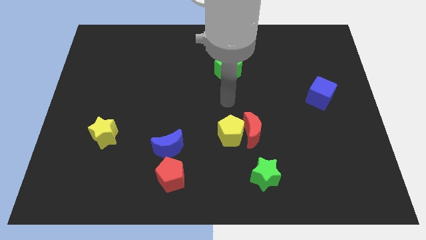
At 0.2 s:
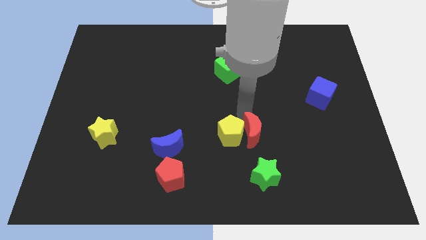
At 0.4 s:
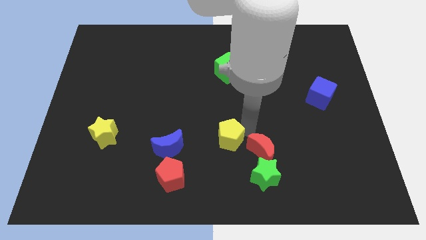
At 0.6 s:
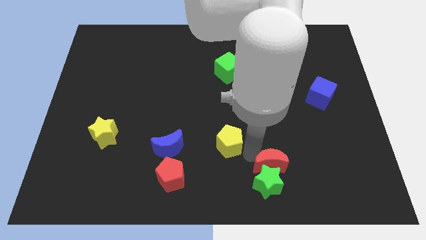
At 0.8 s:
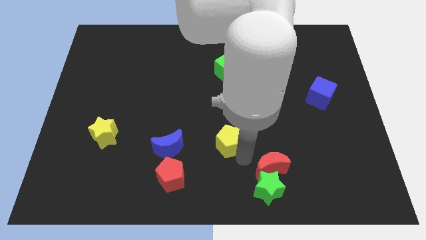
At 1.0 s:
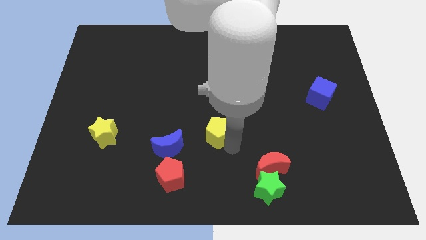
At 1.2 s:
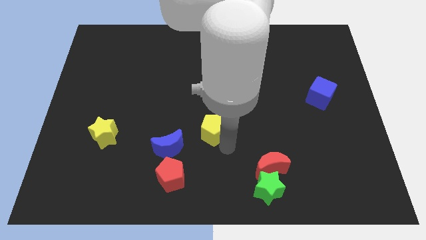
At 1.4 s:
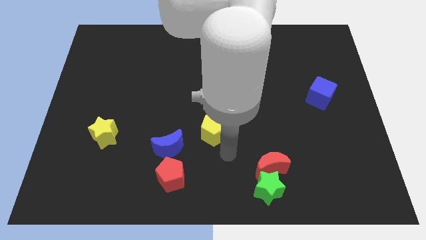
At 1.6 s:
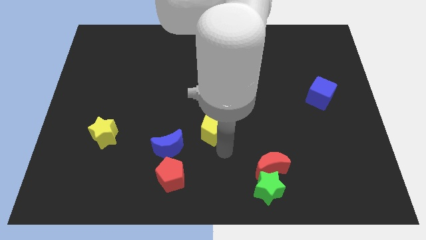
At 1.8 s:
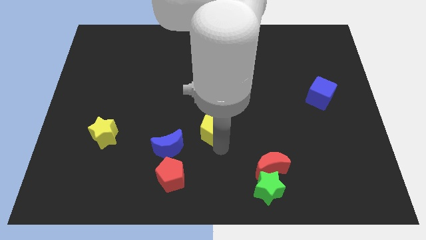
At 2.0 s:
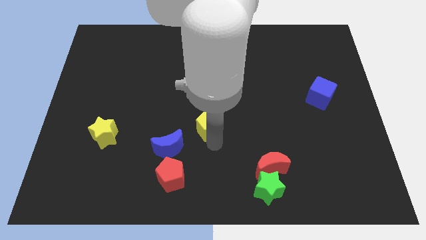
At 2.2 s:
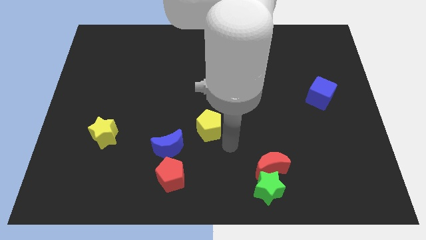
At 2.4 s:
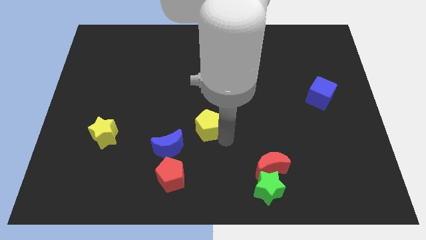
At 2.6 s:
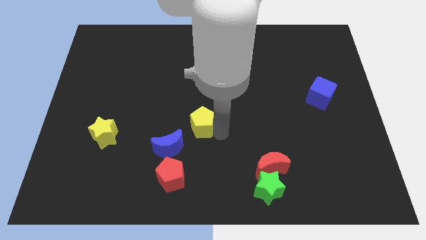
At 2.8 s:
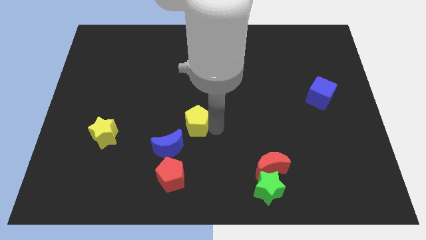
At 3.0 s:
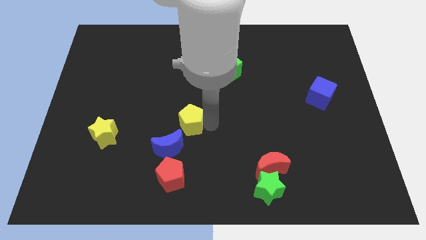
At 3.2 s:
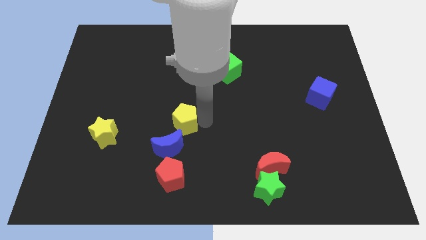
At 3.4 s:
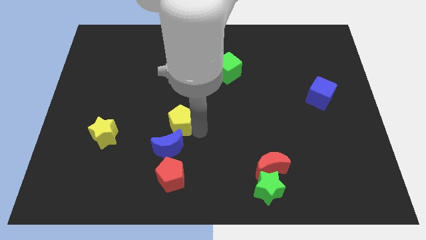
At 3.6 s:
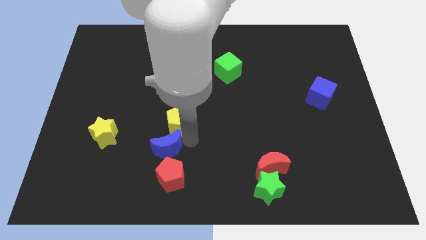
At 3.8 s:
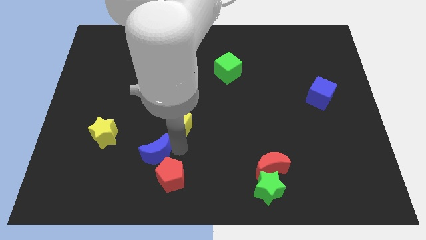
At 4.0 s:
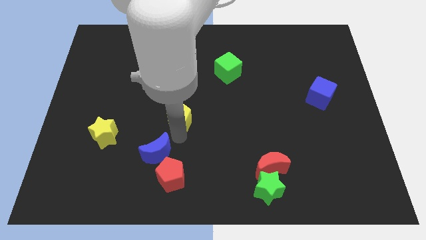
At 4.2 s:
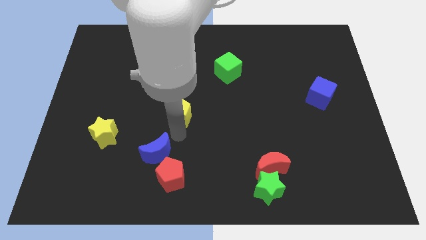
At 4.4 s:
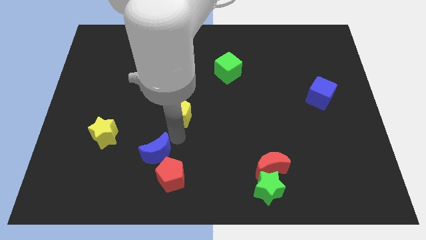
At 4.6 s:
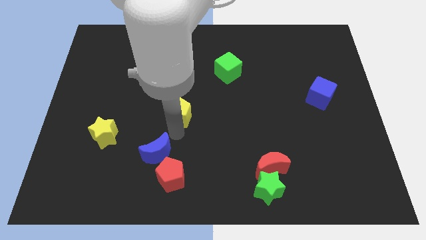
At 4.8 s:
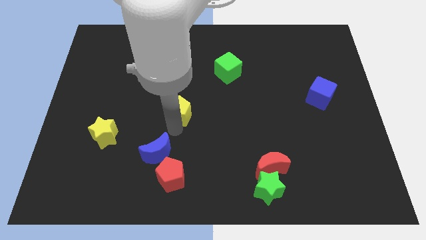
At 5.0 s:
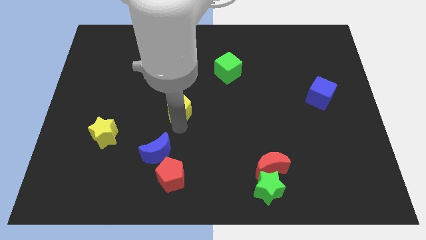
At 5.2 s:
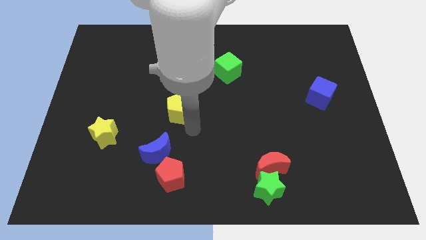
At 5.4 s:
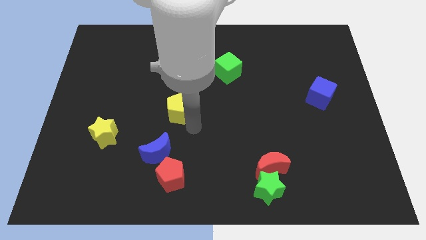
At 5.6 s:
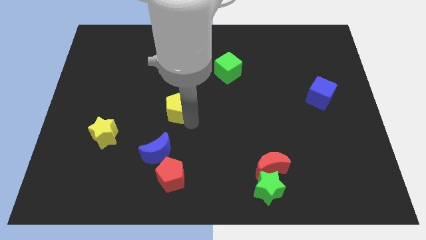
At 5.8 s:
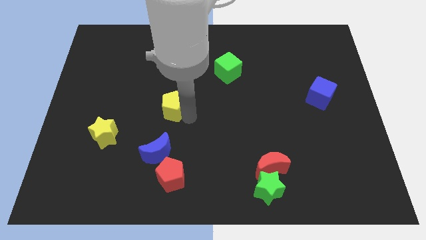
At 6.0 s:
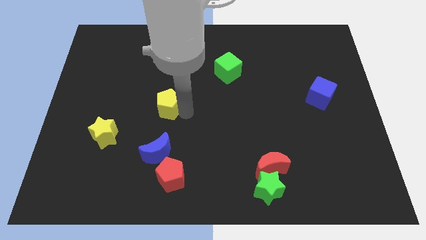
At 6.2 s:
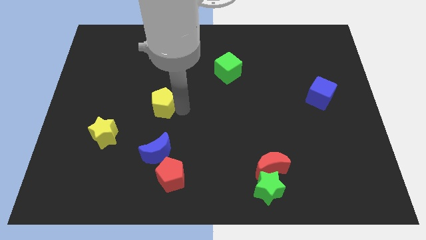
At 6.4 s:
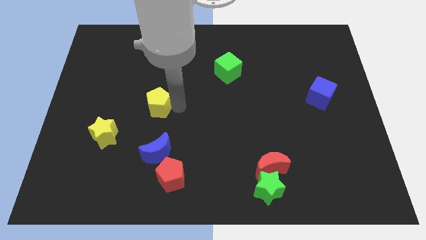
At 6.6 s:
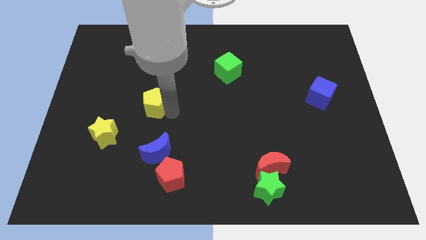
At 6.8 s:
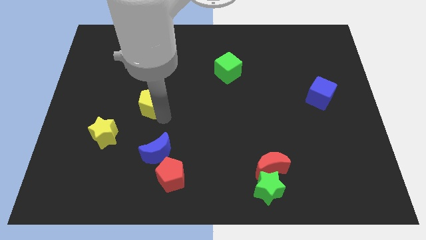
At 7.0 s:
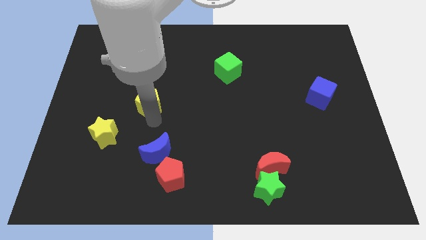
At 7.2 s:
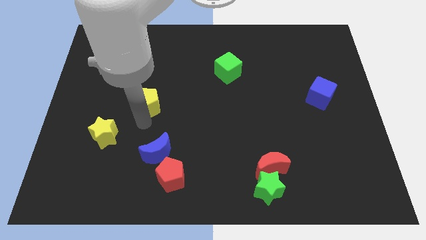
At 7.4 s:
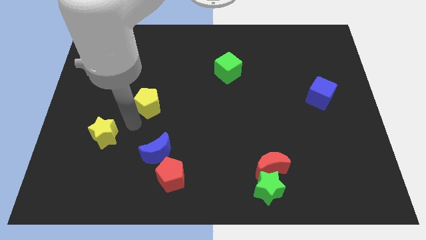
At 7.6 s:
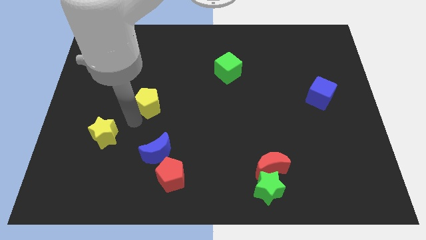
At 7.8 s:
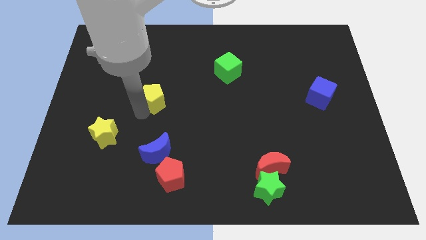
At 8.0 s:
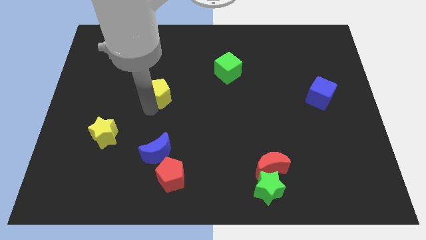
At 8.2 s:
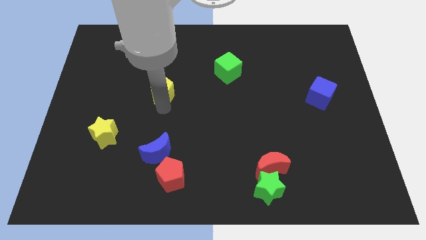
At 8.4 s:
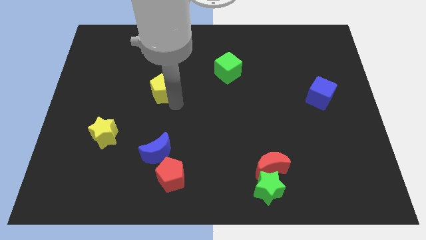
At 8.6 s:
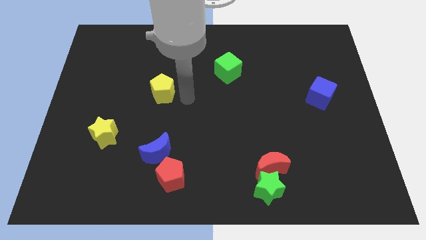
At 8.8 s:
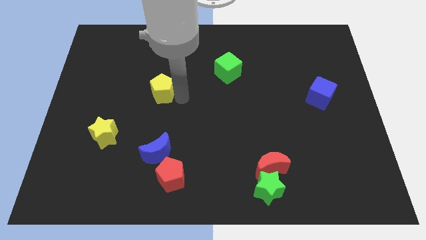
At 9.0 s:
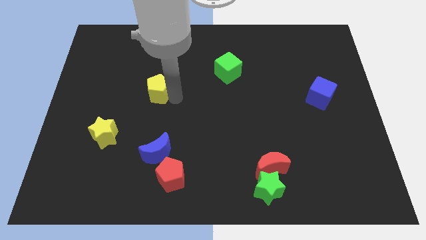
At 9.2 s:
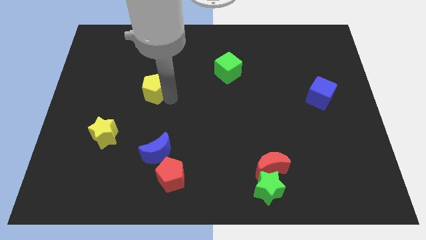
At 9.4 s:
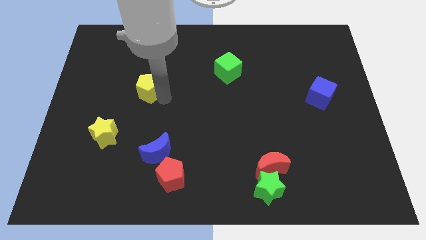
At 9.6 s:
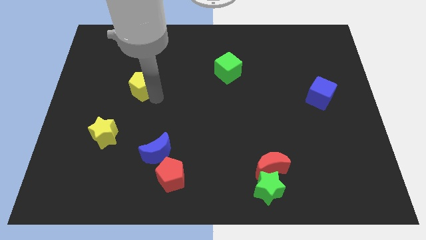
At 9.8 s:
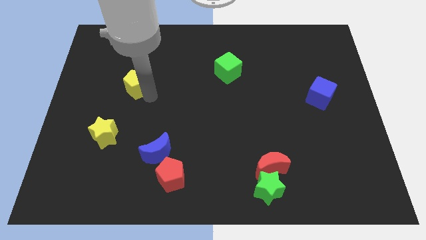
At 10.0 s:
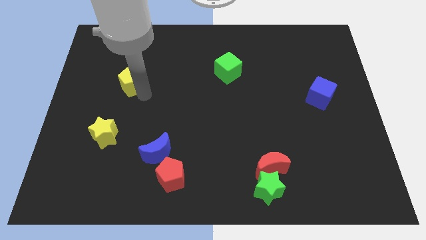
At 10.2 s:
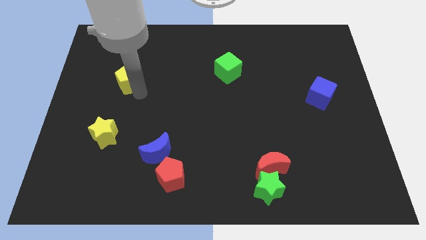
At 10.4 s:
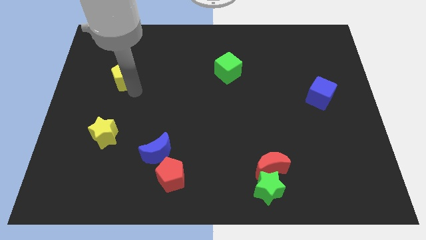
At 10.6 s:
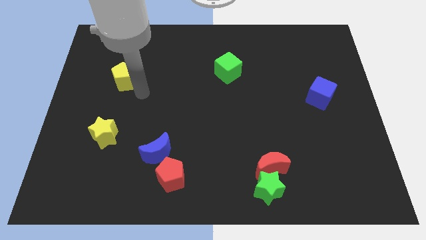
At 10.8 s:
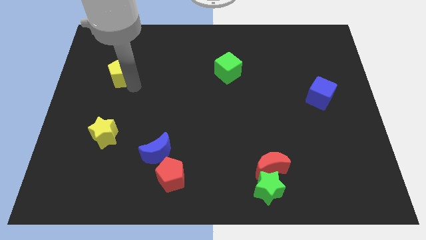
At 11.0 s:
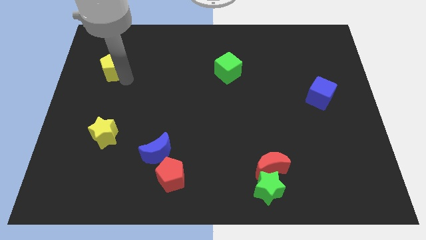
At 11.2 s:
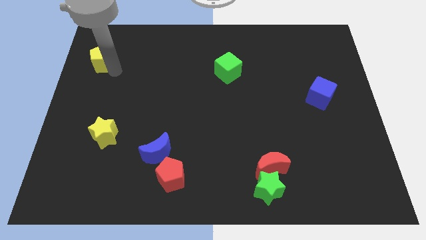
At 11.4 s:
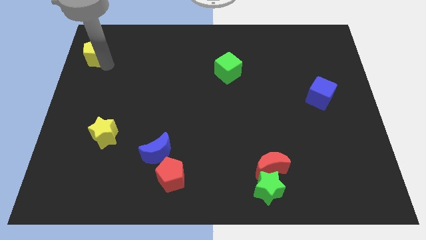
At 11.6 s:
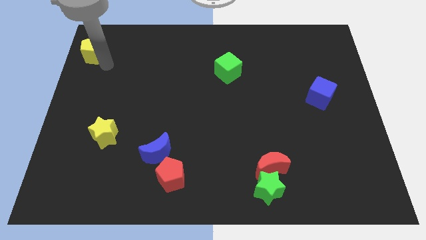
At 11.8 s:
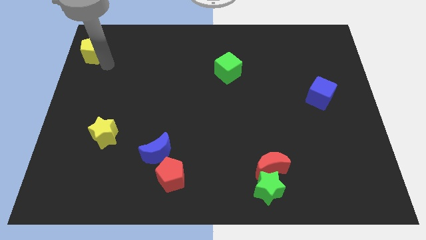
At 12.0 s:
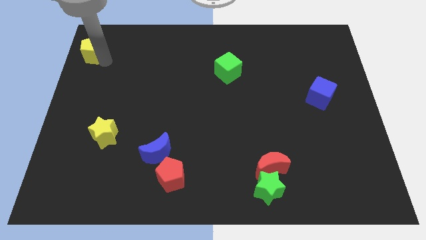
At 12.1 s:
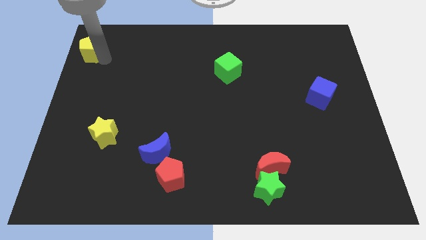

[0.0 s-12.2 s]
move the yellow pentagon to the top left corner

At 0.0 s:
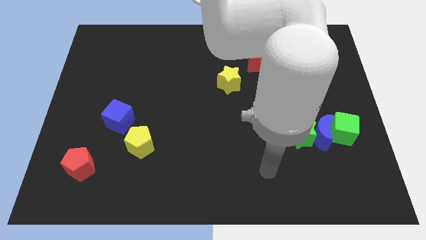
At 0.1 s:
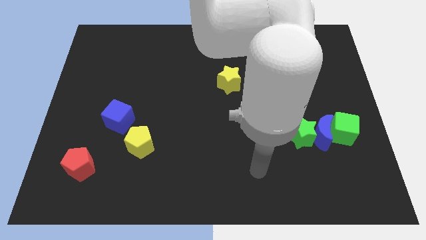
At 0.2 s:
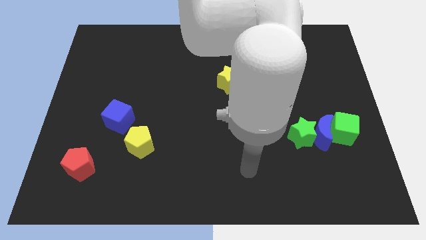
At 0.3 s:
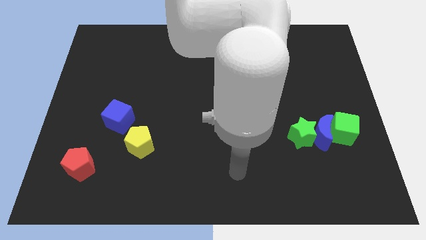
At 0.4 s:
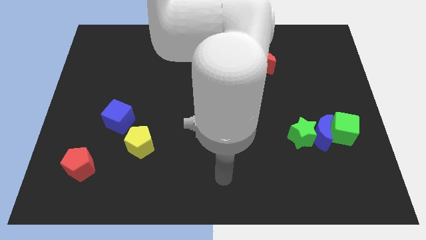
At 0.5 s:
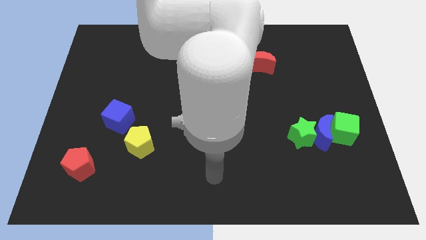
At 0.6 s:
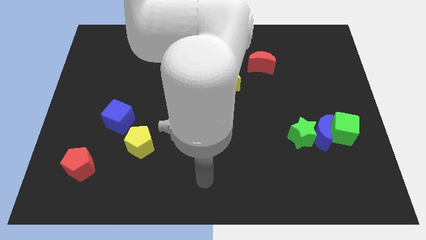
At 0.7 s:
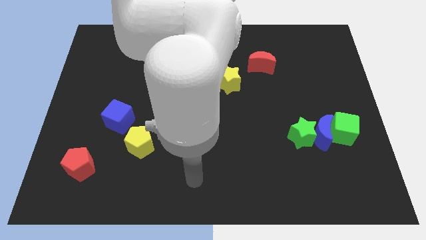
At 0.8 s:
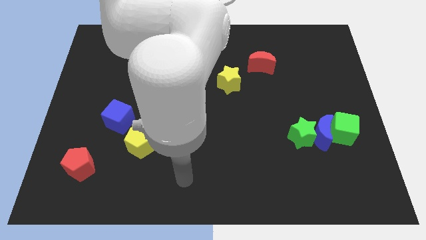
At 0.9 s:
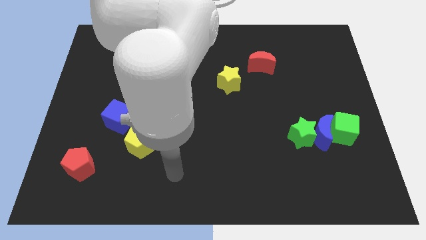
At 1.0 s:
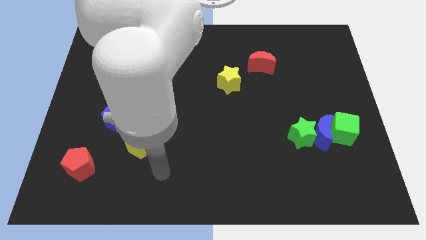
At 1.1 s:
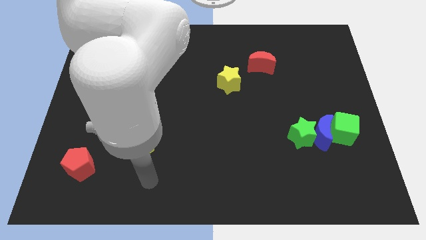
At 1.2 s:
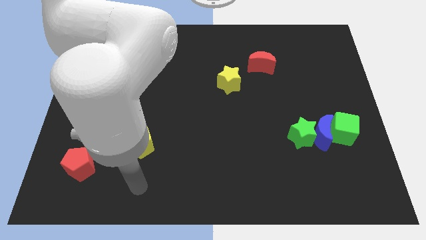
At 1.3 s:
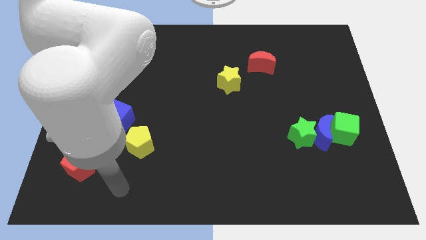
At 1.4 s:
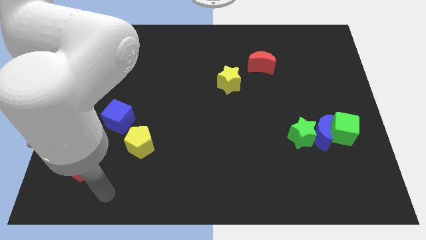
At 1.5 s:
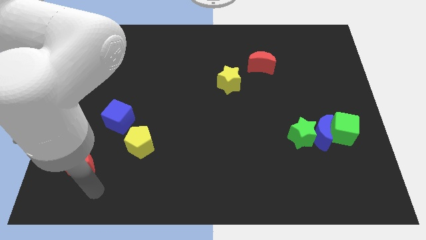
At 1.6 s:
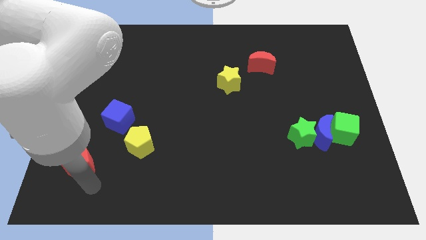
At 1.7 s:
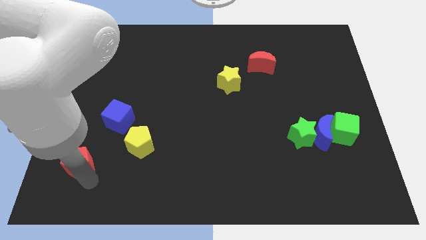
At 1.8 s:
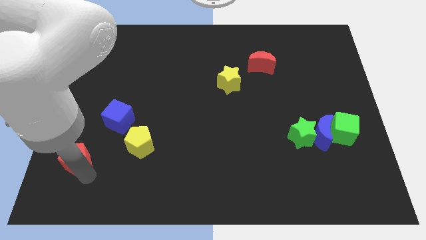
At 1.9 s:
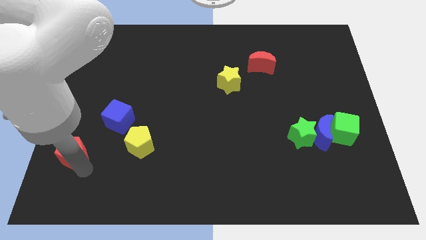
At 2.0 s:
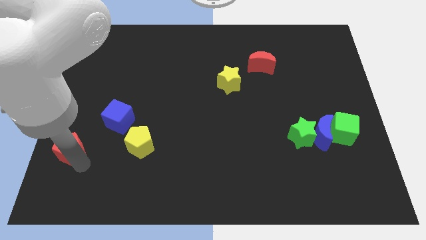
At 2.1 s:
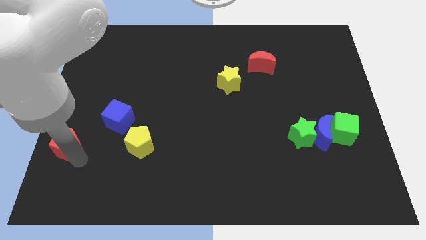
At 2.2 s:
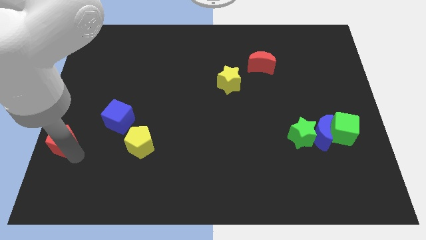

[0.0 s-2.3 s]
slide the red pentagon to the left side of the board
